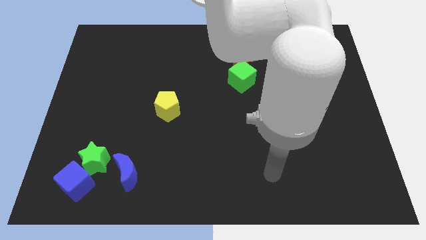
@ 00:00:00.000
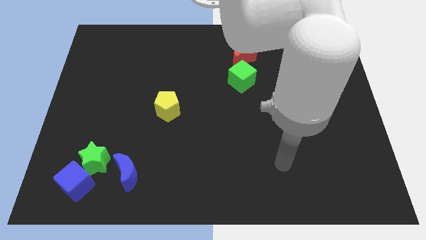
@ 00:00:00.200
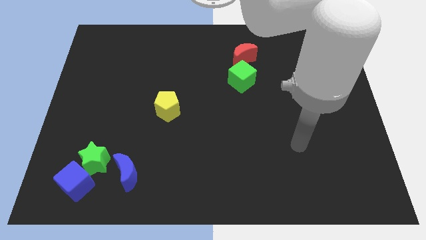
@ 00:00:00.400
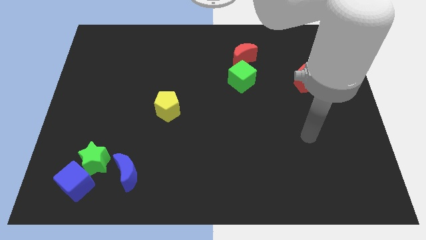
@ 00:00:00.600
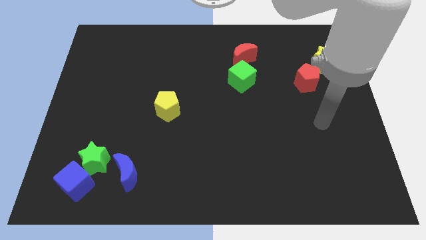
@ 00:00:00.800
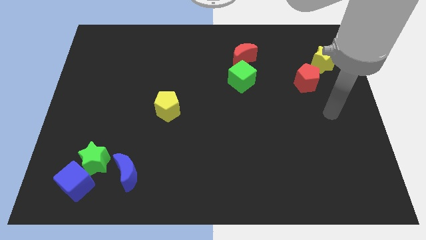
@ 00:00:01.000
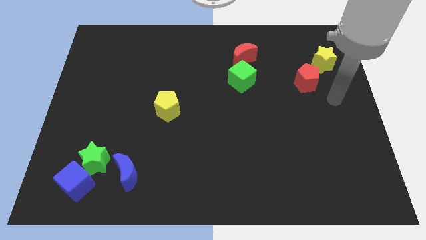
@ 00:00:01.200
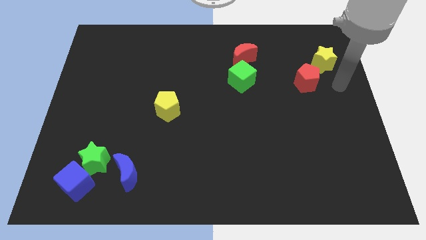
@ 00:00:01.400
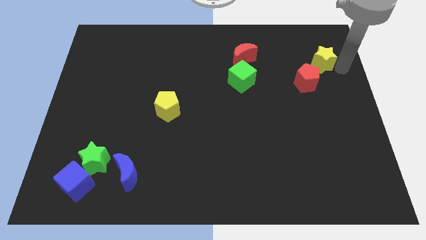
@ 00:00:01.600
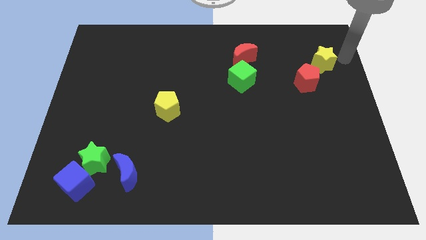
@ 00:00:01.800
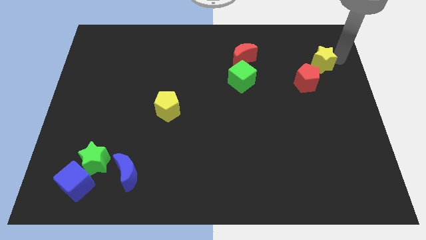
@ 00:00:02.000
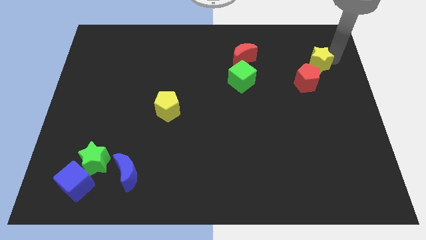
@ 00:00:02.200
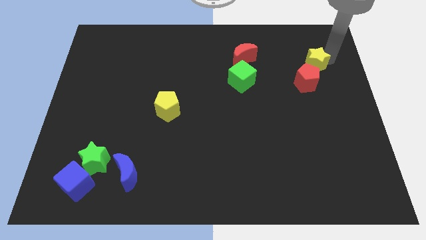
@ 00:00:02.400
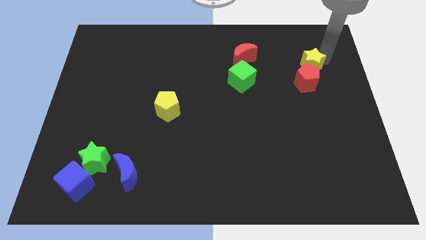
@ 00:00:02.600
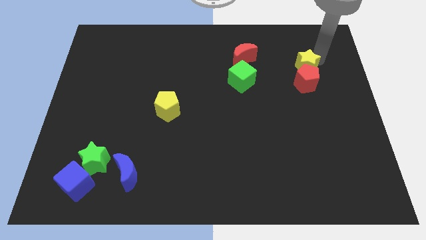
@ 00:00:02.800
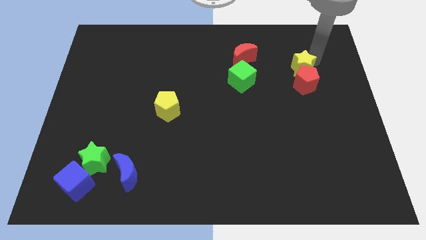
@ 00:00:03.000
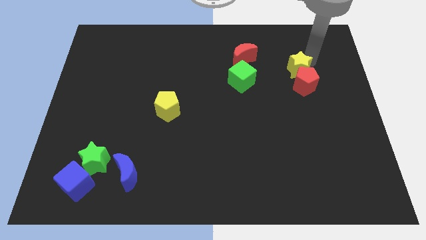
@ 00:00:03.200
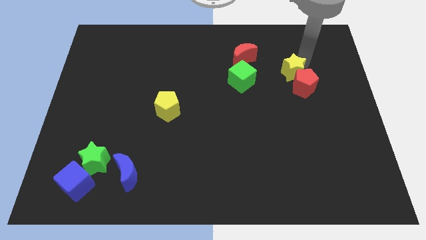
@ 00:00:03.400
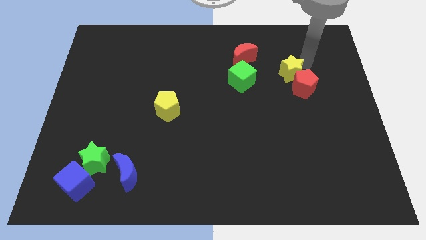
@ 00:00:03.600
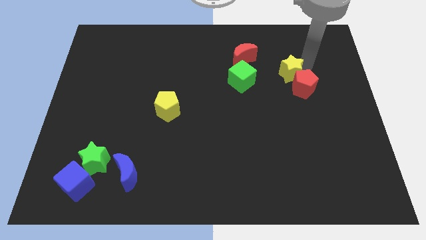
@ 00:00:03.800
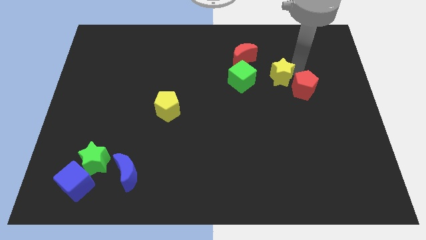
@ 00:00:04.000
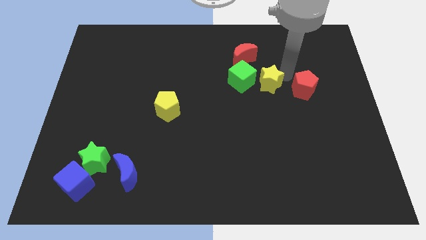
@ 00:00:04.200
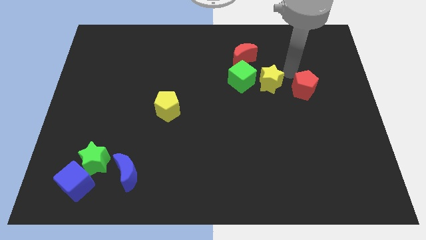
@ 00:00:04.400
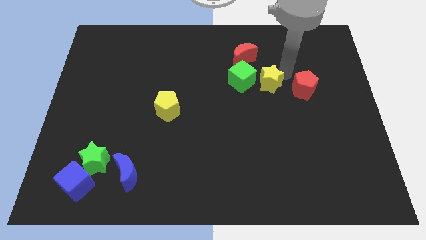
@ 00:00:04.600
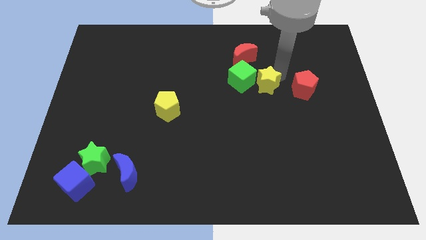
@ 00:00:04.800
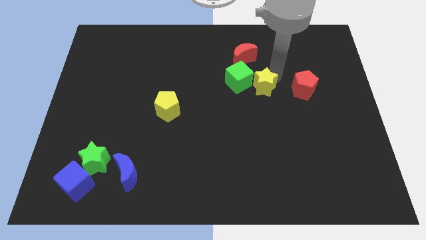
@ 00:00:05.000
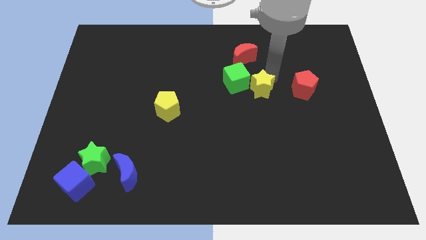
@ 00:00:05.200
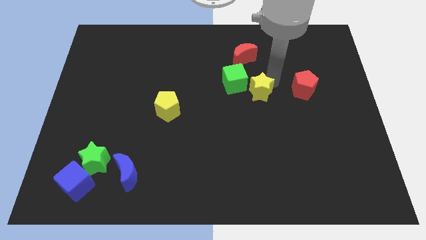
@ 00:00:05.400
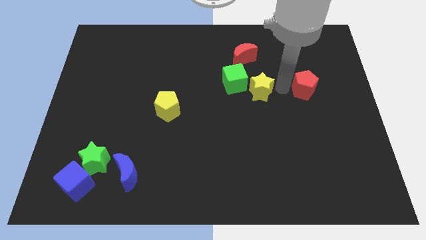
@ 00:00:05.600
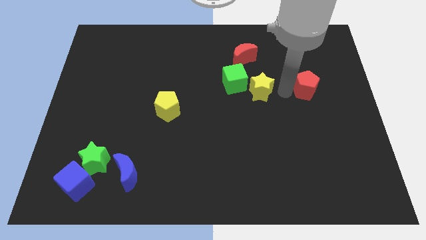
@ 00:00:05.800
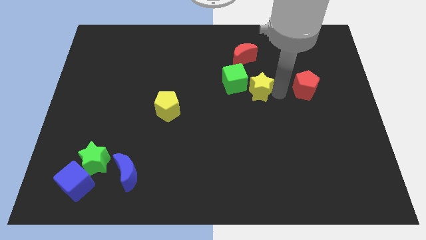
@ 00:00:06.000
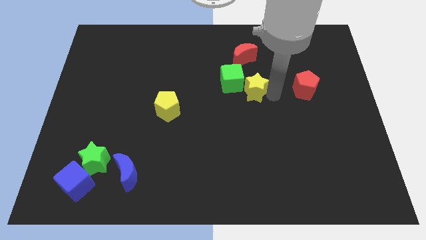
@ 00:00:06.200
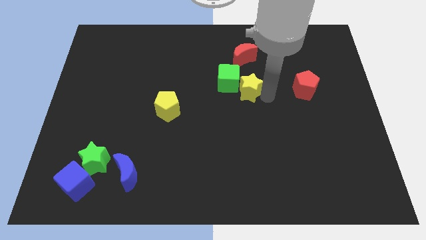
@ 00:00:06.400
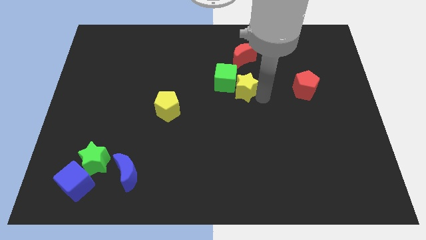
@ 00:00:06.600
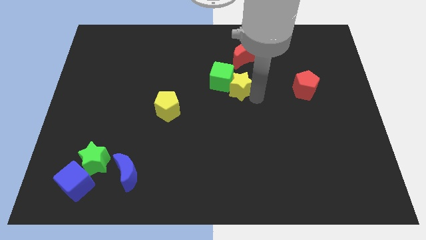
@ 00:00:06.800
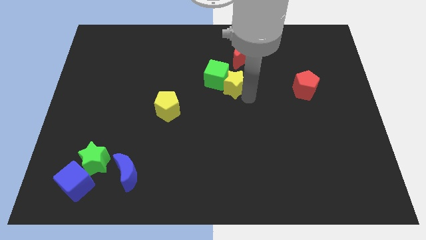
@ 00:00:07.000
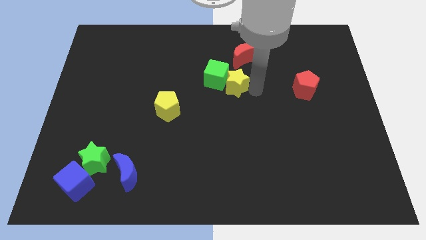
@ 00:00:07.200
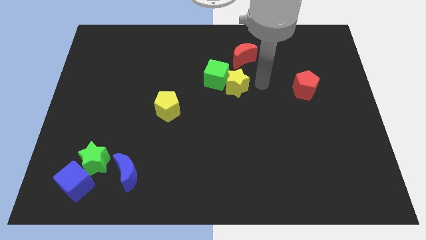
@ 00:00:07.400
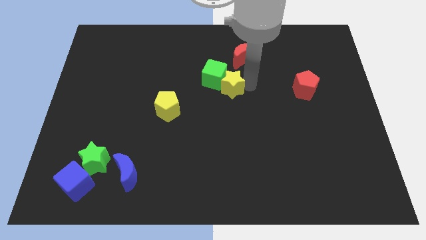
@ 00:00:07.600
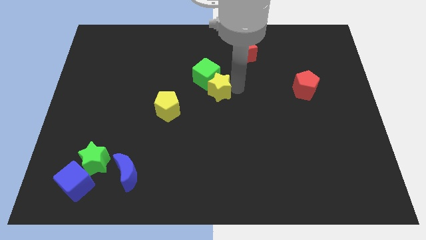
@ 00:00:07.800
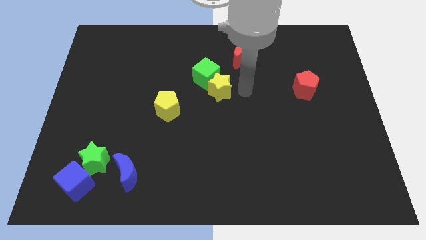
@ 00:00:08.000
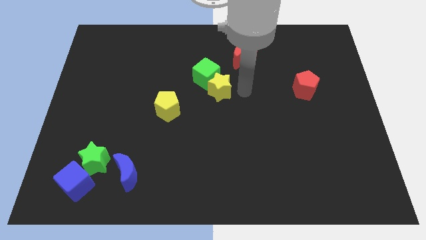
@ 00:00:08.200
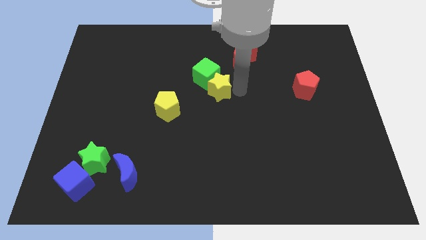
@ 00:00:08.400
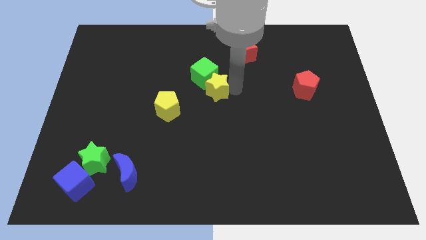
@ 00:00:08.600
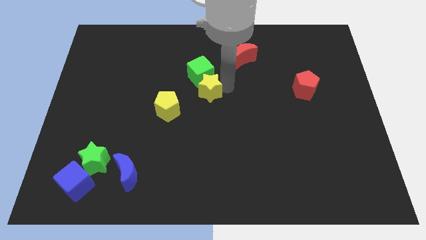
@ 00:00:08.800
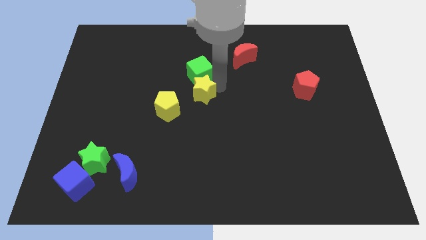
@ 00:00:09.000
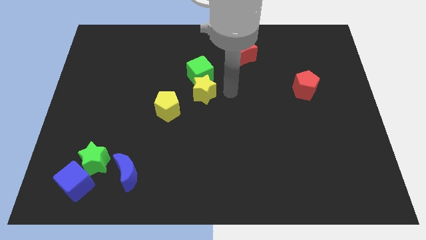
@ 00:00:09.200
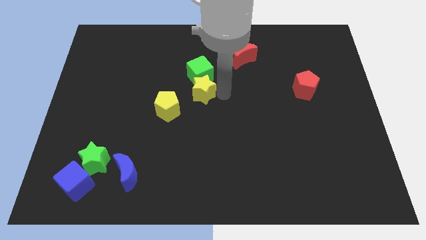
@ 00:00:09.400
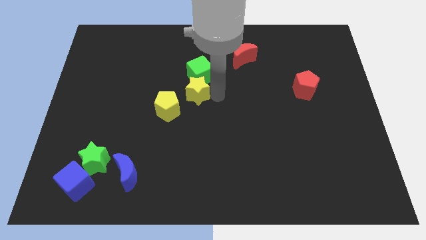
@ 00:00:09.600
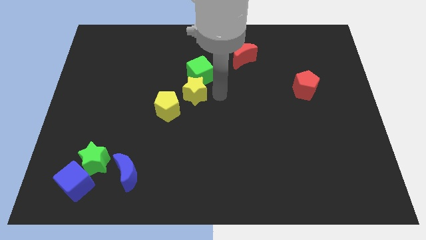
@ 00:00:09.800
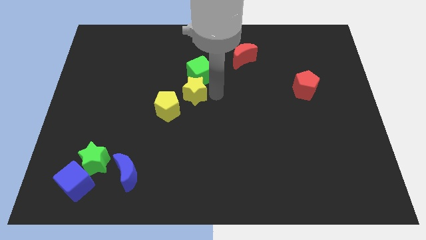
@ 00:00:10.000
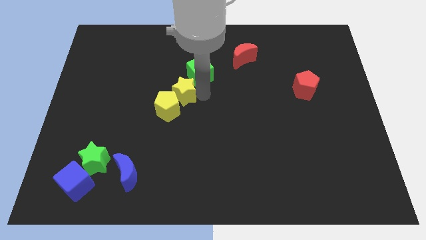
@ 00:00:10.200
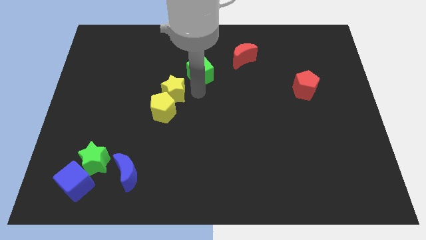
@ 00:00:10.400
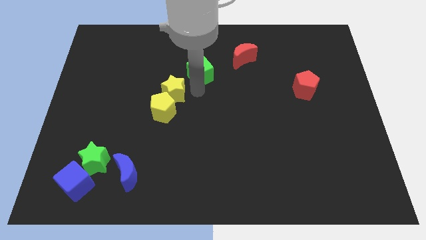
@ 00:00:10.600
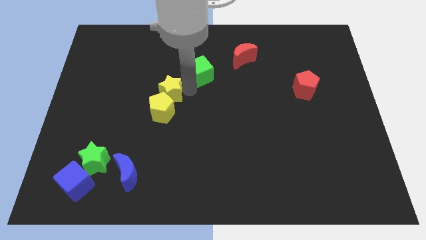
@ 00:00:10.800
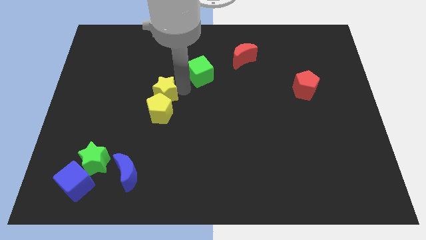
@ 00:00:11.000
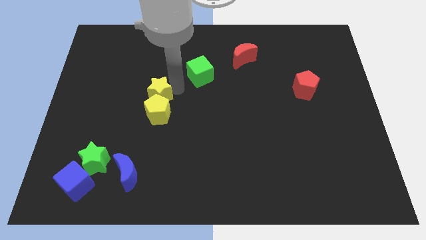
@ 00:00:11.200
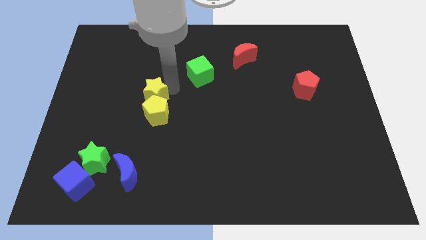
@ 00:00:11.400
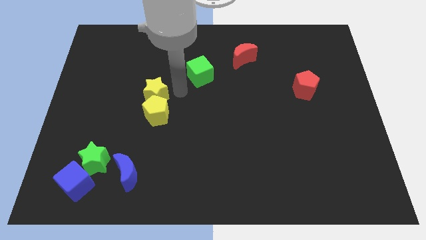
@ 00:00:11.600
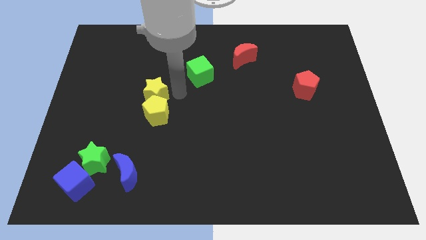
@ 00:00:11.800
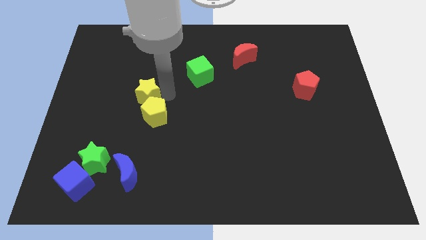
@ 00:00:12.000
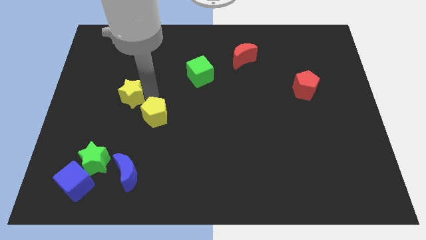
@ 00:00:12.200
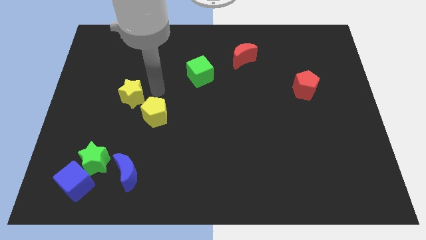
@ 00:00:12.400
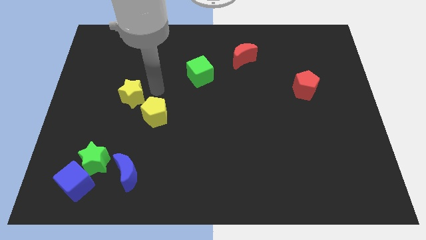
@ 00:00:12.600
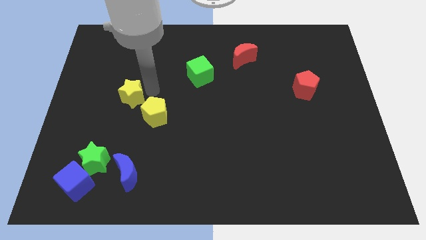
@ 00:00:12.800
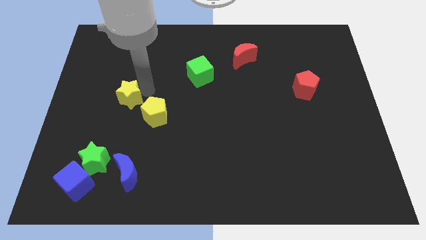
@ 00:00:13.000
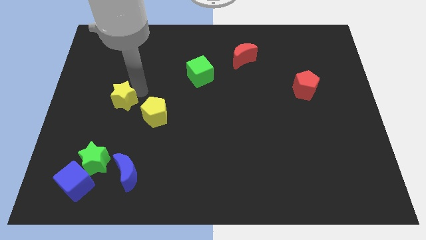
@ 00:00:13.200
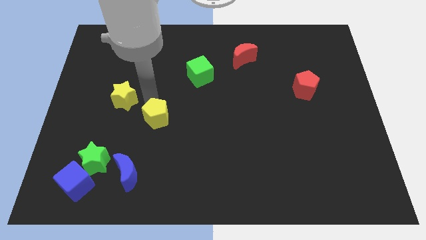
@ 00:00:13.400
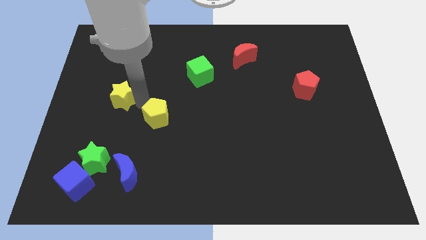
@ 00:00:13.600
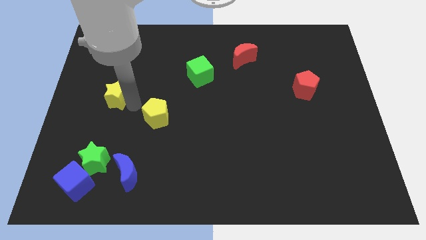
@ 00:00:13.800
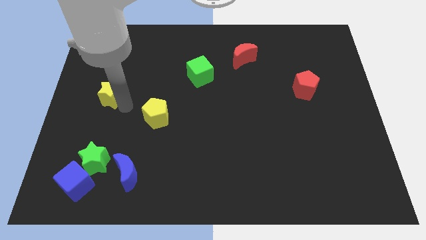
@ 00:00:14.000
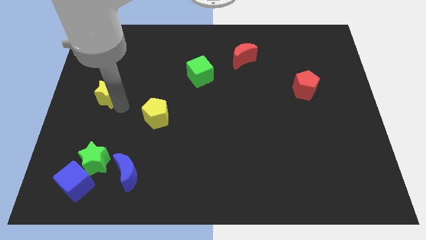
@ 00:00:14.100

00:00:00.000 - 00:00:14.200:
slide the yellow star to the center left
